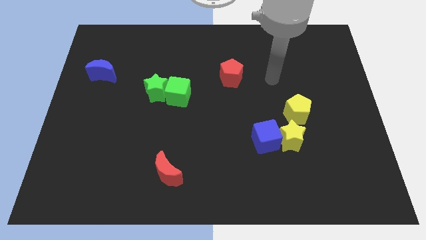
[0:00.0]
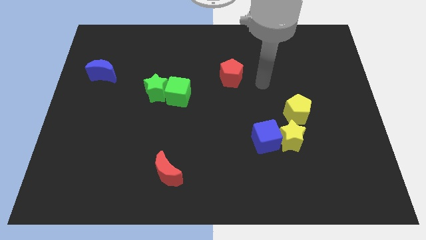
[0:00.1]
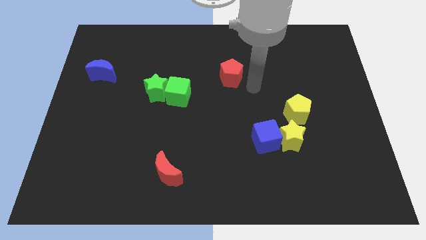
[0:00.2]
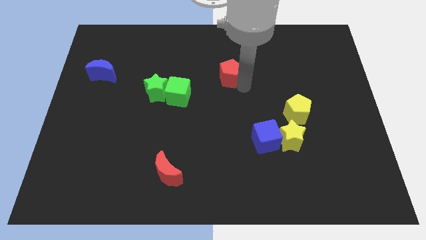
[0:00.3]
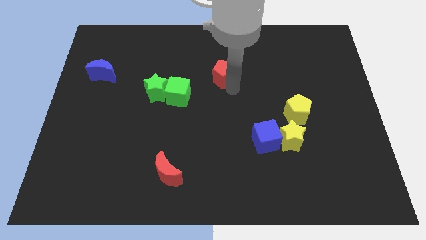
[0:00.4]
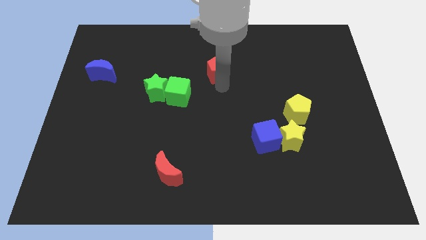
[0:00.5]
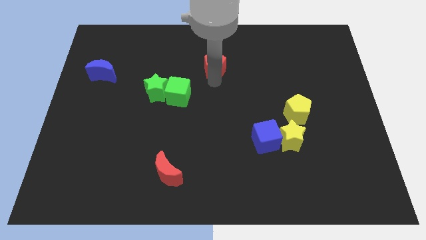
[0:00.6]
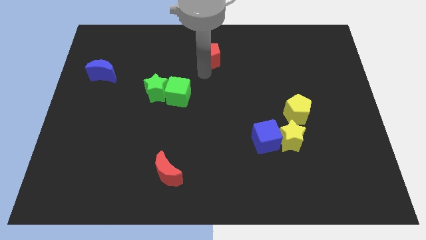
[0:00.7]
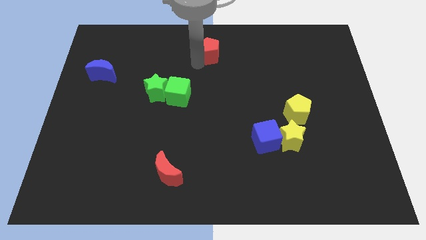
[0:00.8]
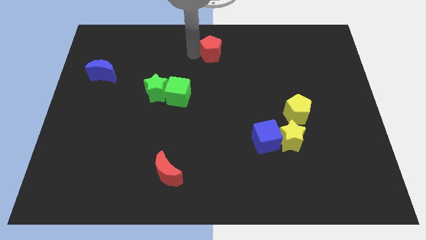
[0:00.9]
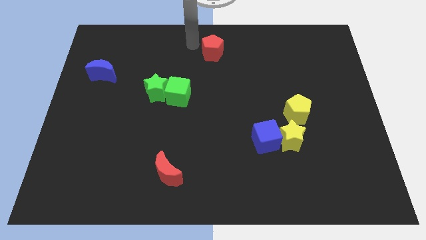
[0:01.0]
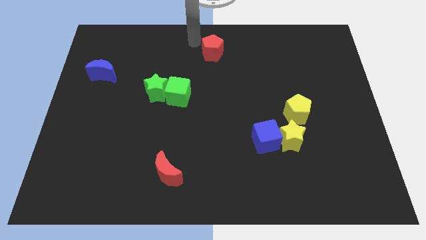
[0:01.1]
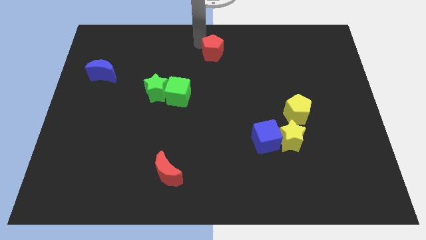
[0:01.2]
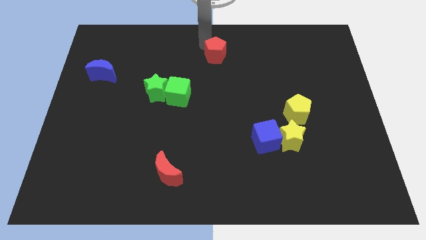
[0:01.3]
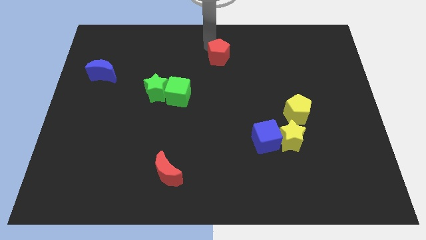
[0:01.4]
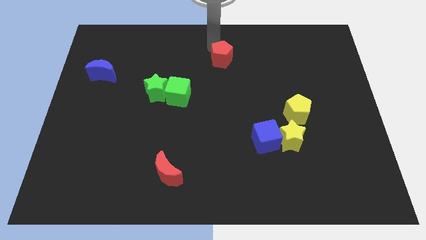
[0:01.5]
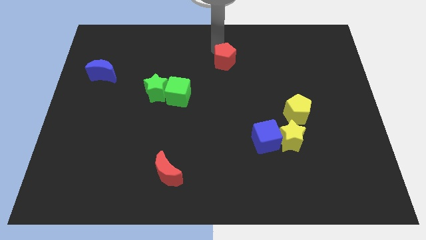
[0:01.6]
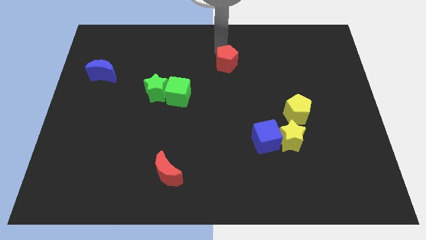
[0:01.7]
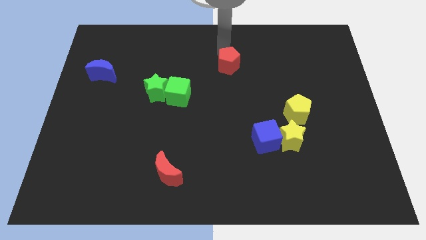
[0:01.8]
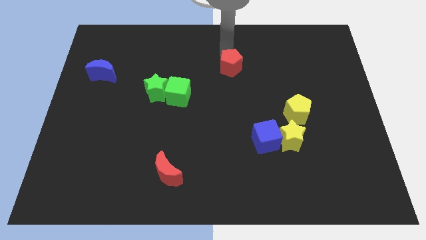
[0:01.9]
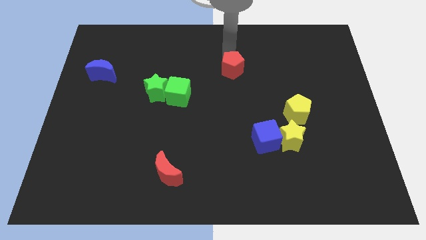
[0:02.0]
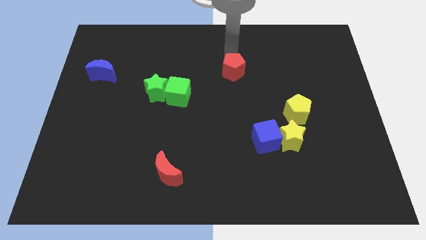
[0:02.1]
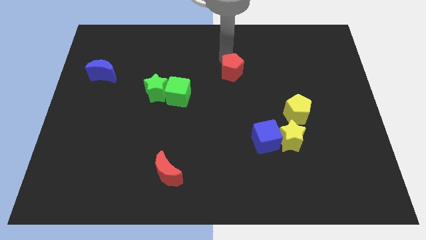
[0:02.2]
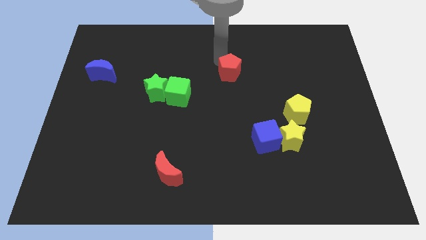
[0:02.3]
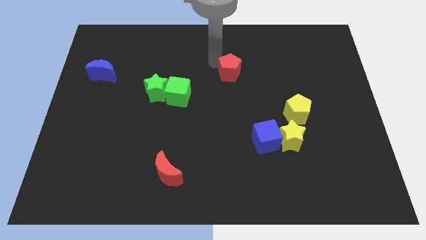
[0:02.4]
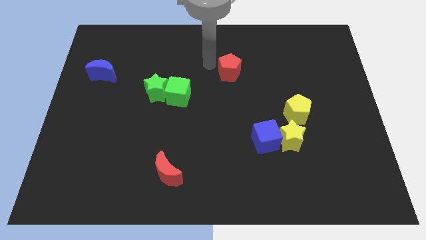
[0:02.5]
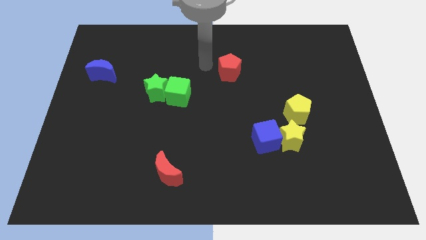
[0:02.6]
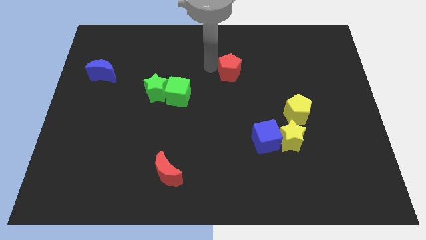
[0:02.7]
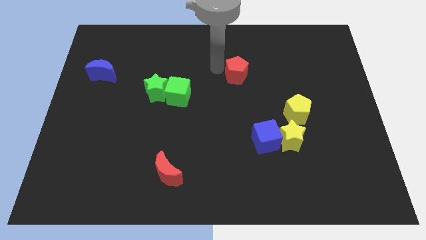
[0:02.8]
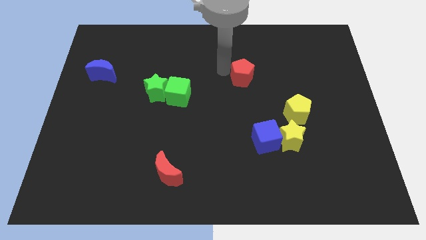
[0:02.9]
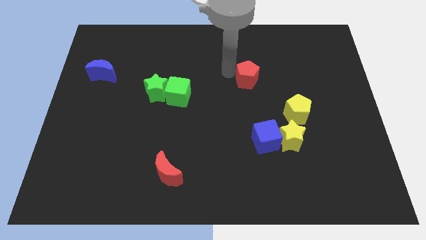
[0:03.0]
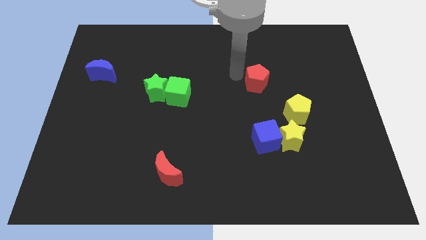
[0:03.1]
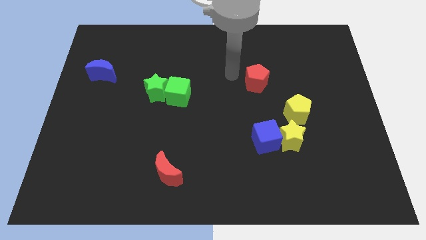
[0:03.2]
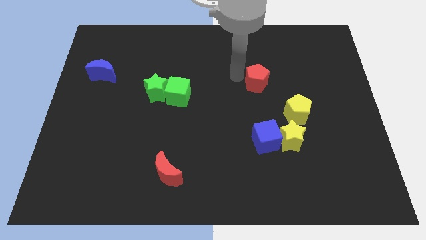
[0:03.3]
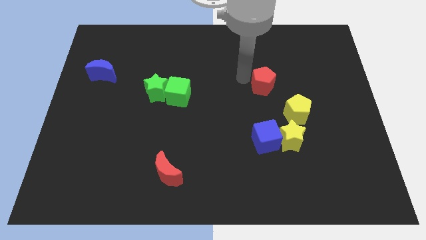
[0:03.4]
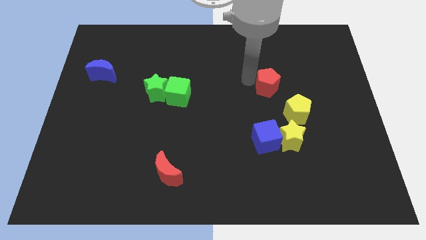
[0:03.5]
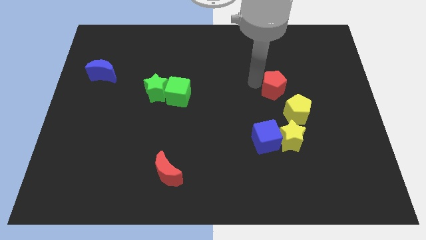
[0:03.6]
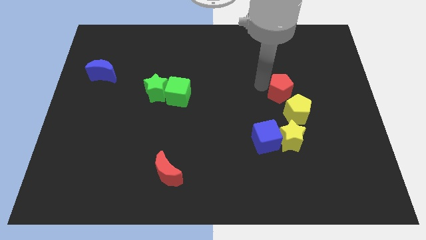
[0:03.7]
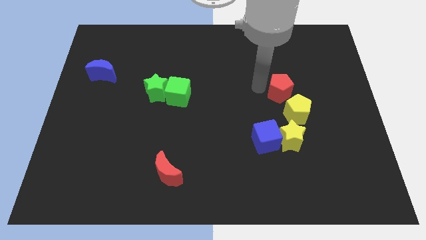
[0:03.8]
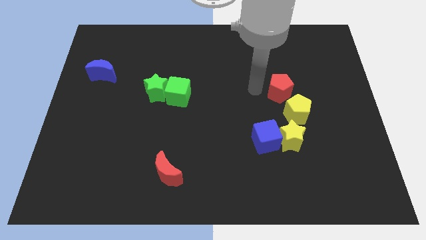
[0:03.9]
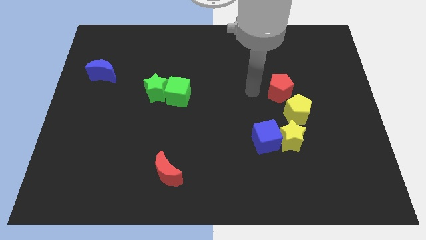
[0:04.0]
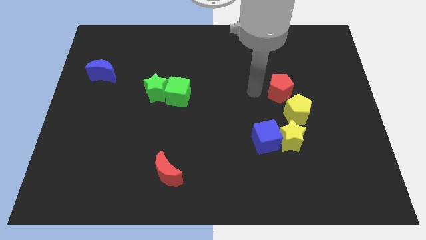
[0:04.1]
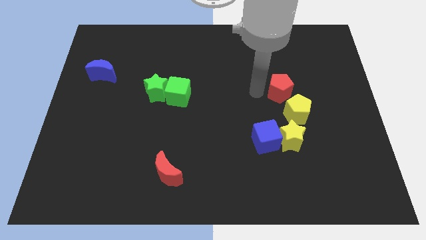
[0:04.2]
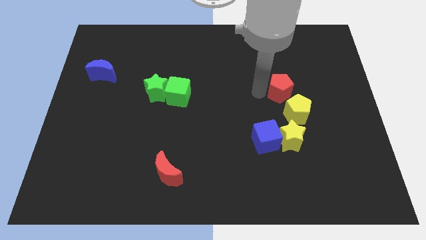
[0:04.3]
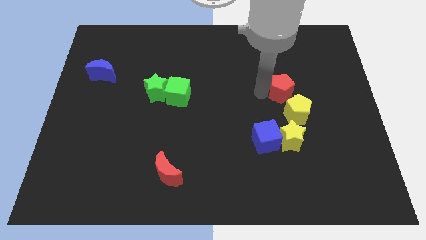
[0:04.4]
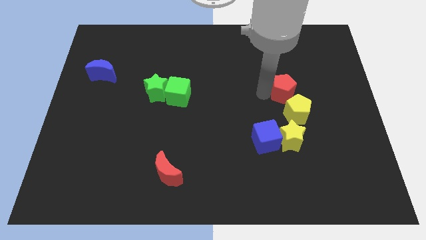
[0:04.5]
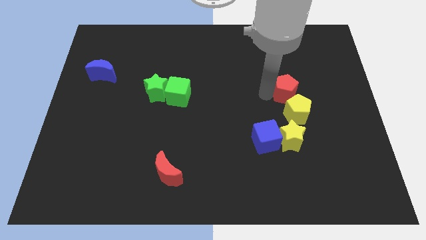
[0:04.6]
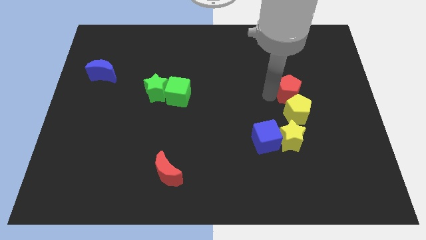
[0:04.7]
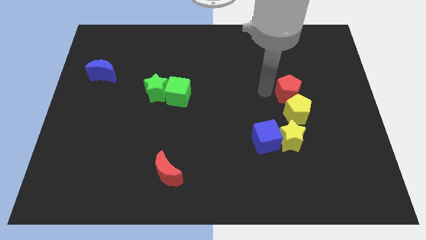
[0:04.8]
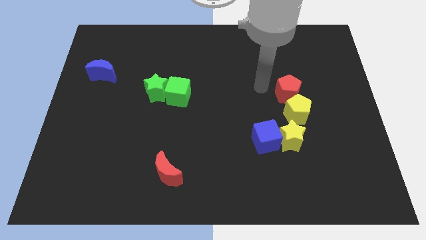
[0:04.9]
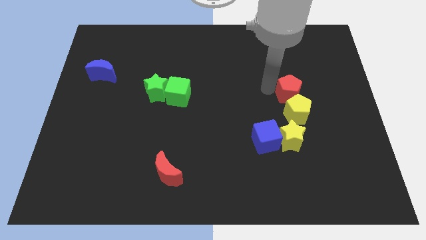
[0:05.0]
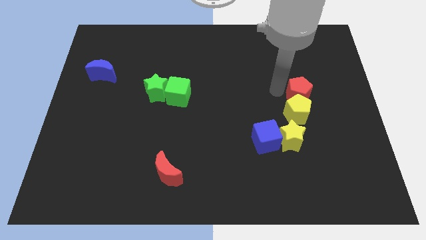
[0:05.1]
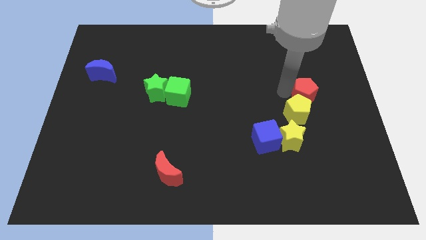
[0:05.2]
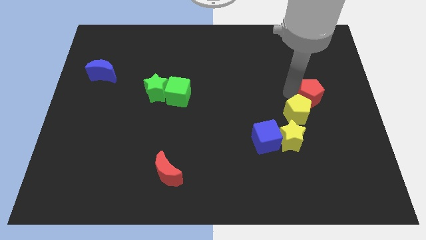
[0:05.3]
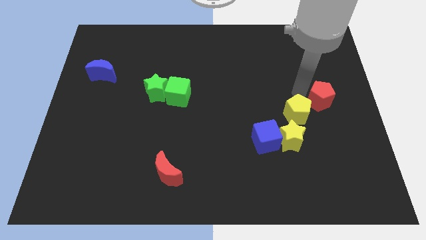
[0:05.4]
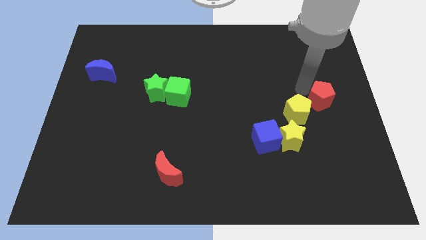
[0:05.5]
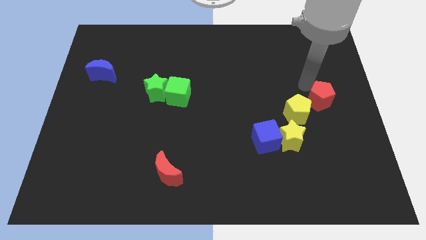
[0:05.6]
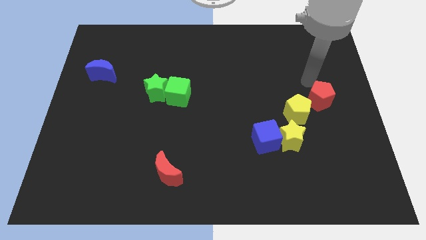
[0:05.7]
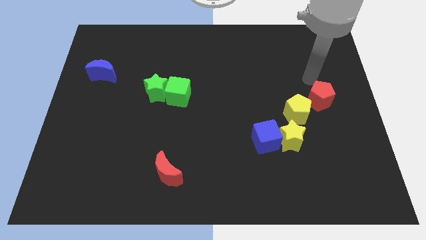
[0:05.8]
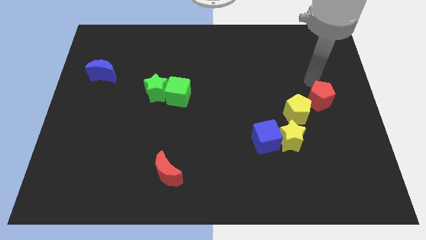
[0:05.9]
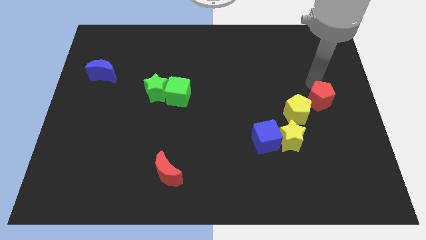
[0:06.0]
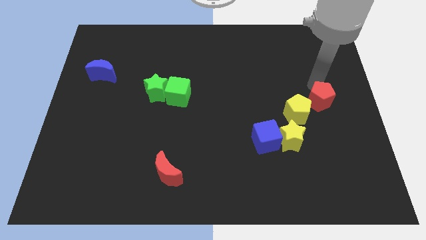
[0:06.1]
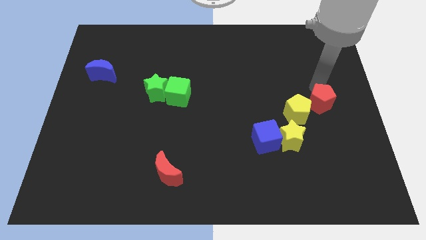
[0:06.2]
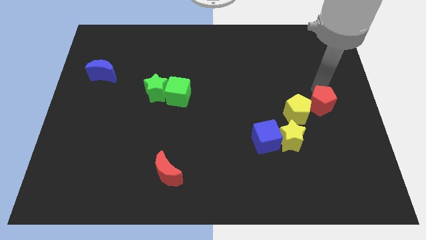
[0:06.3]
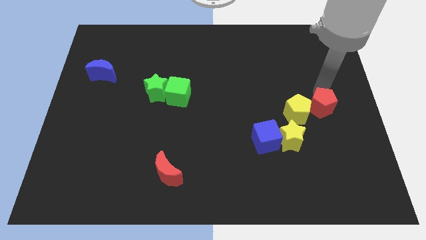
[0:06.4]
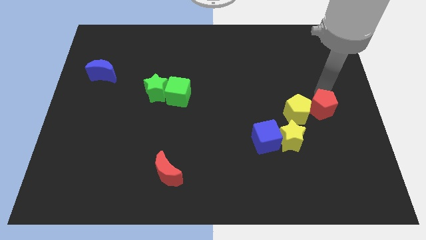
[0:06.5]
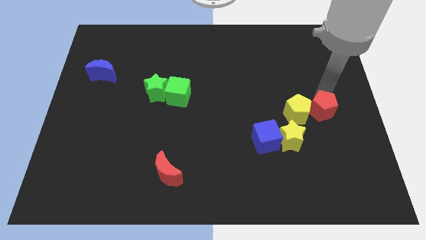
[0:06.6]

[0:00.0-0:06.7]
slide the red pentagon downwards and to the right diagonally

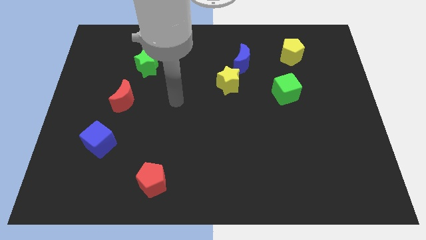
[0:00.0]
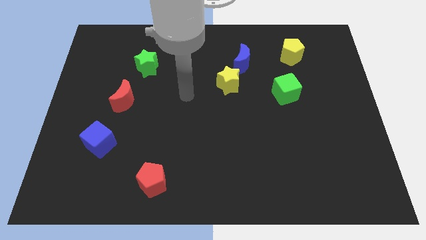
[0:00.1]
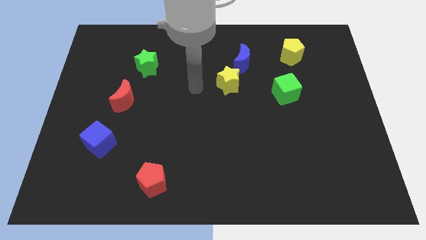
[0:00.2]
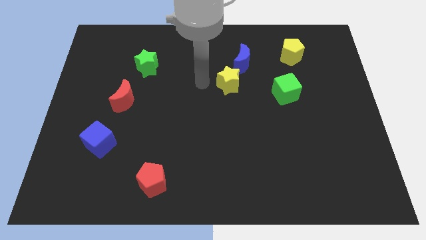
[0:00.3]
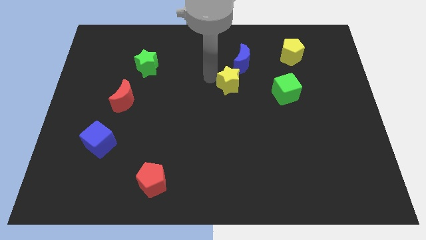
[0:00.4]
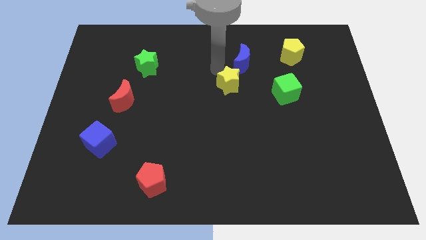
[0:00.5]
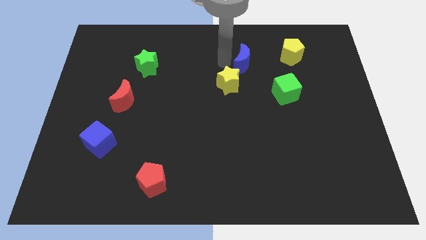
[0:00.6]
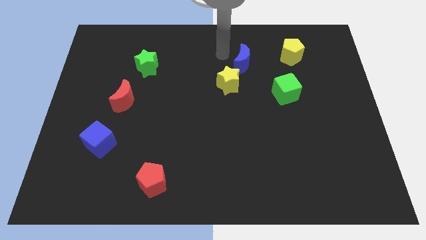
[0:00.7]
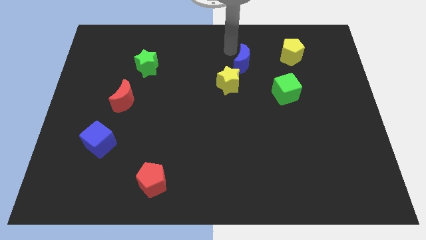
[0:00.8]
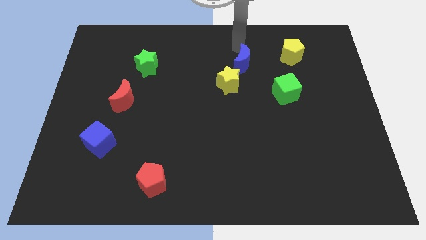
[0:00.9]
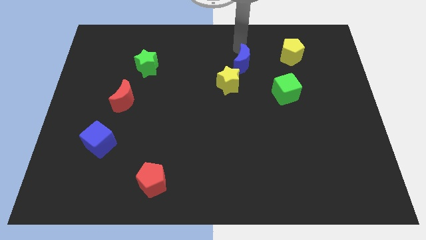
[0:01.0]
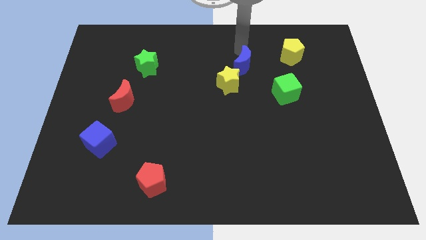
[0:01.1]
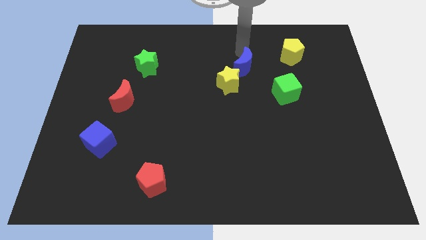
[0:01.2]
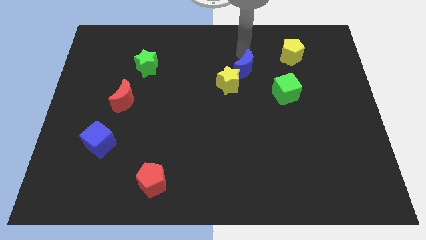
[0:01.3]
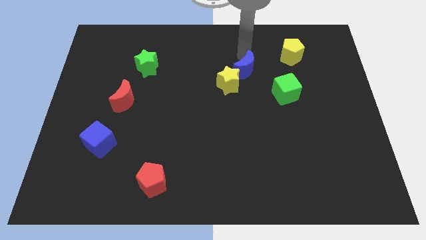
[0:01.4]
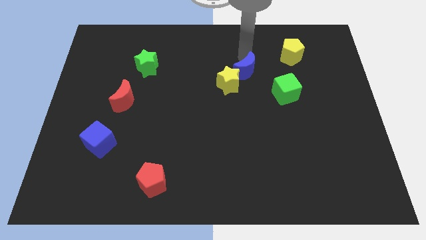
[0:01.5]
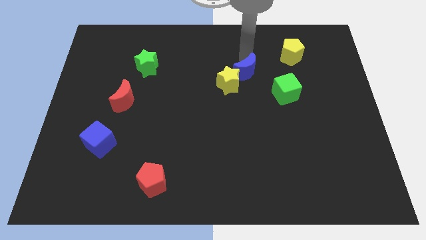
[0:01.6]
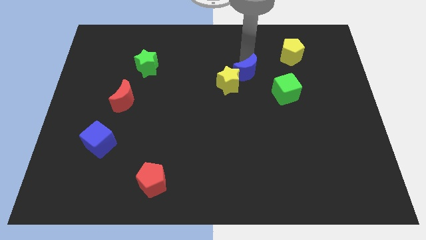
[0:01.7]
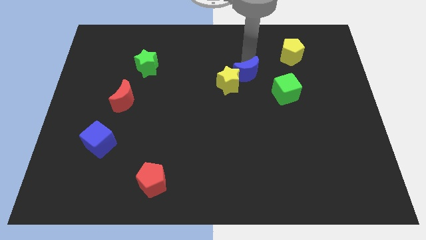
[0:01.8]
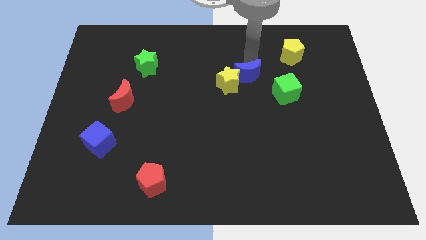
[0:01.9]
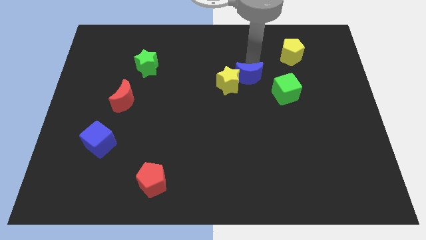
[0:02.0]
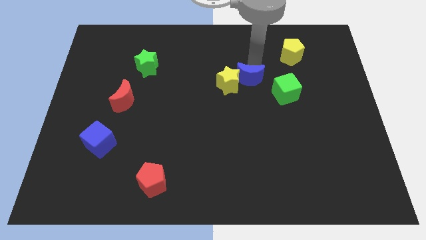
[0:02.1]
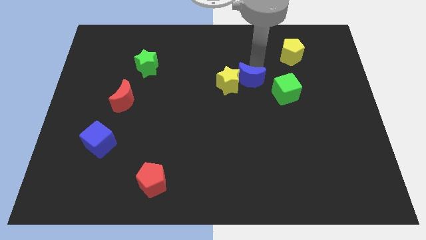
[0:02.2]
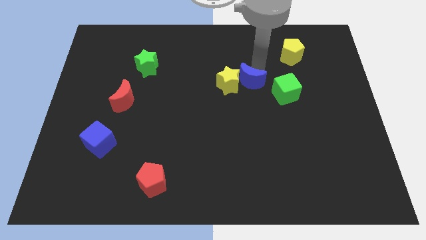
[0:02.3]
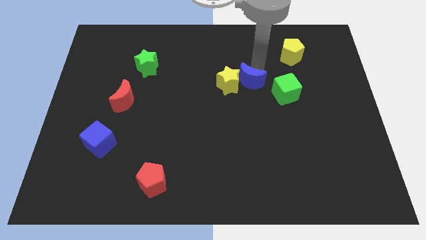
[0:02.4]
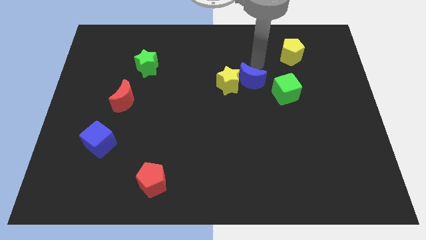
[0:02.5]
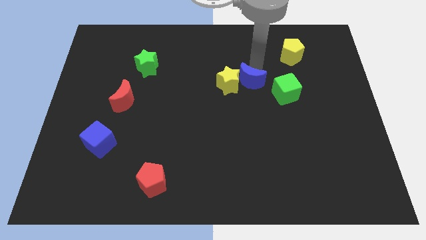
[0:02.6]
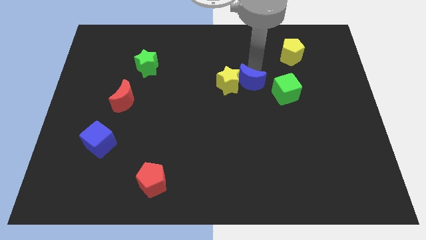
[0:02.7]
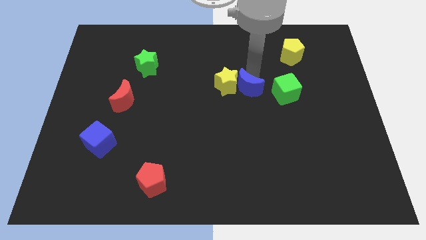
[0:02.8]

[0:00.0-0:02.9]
push the blue moon down a bit
